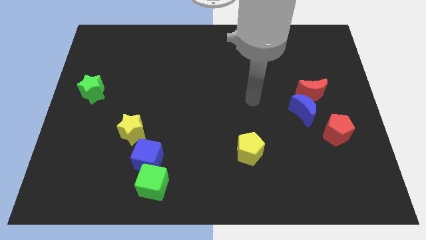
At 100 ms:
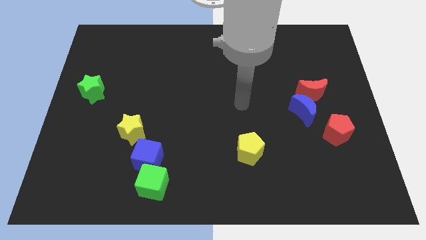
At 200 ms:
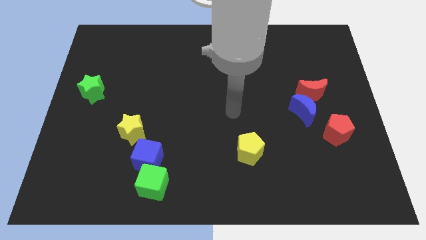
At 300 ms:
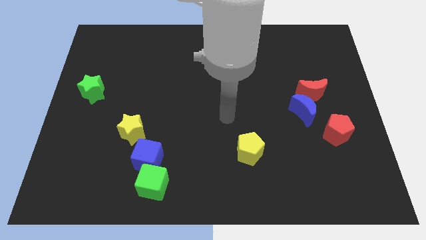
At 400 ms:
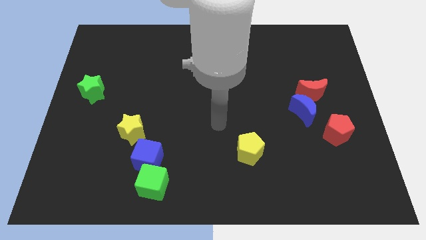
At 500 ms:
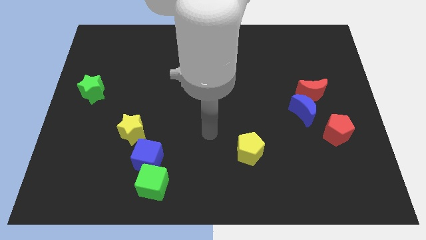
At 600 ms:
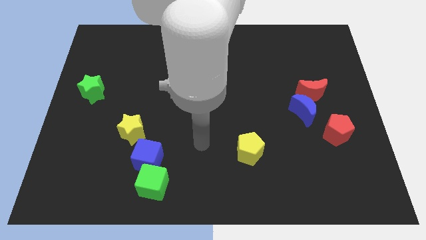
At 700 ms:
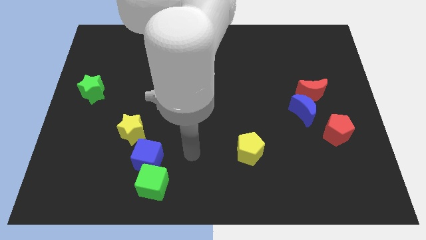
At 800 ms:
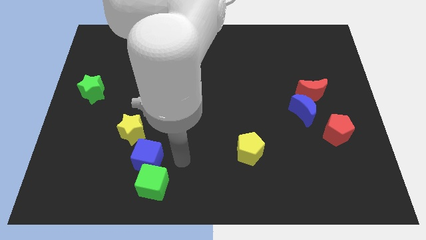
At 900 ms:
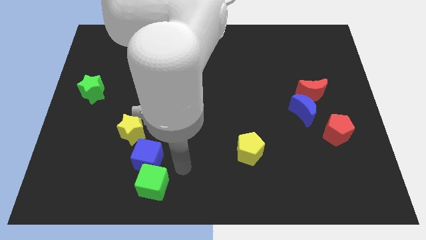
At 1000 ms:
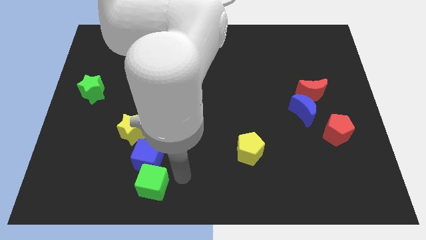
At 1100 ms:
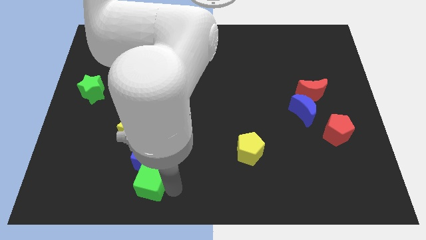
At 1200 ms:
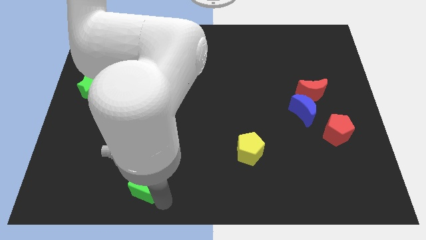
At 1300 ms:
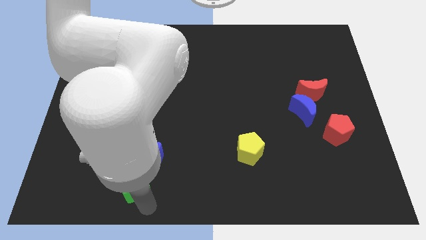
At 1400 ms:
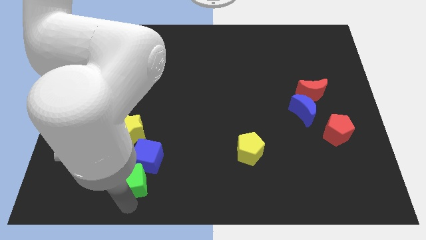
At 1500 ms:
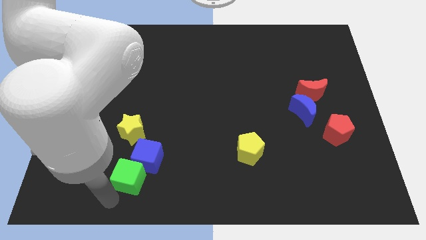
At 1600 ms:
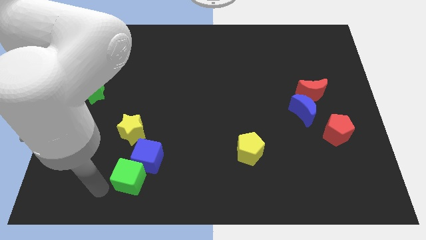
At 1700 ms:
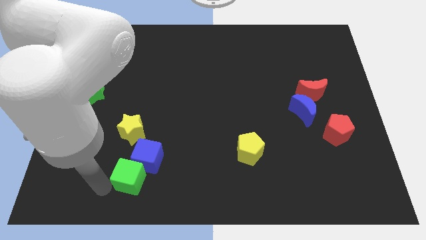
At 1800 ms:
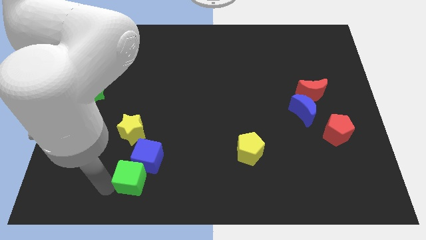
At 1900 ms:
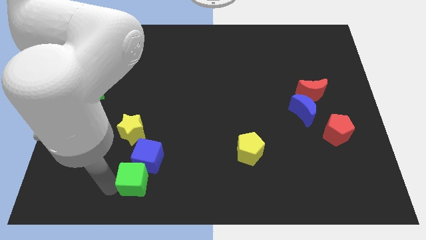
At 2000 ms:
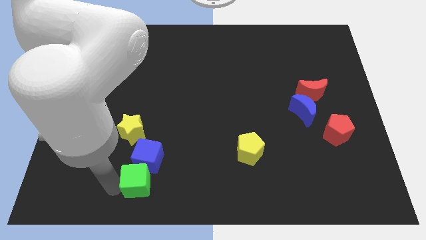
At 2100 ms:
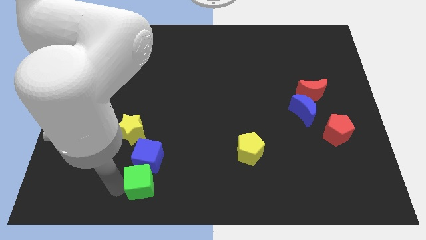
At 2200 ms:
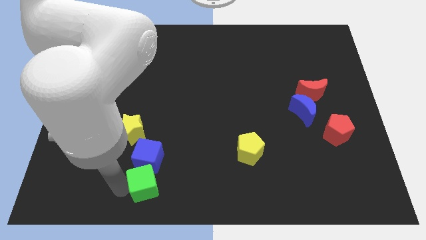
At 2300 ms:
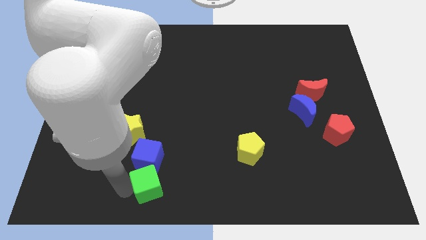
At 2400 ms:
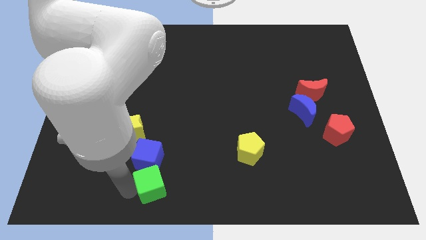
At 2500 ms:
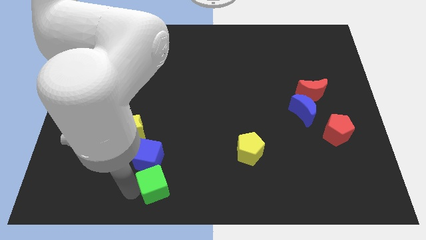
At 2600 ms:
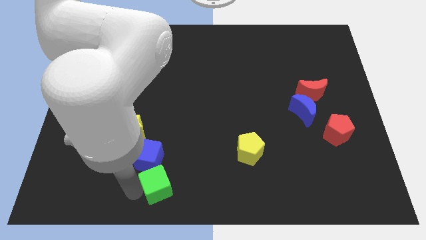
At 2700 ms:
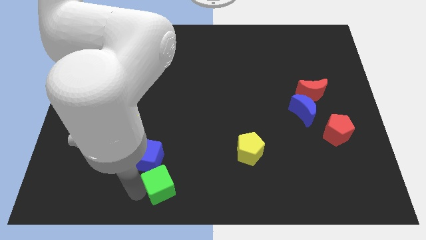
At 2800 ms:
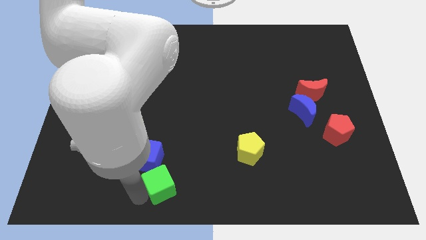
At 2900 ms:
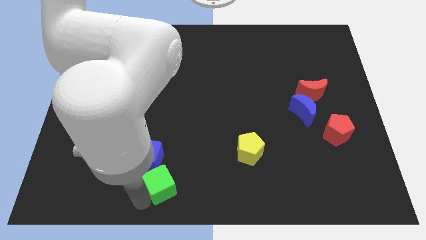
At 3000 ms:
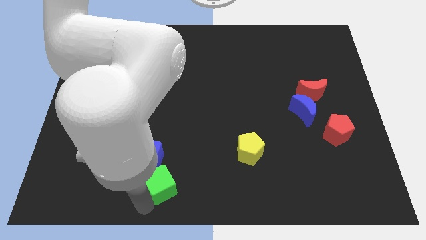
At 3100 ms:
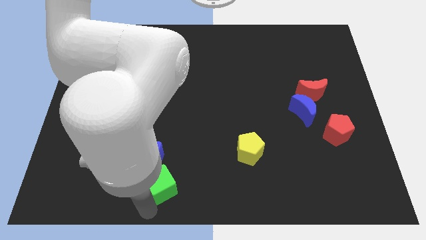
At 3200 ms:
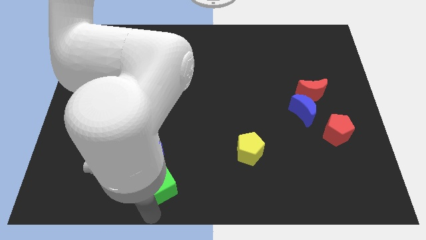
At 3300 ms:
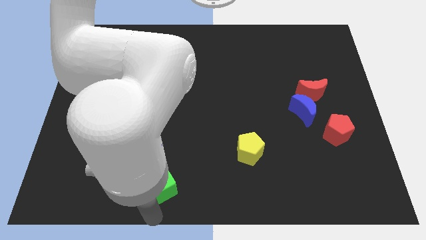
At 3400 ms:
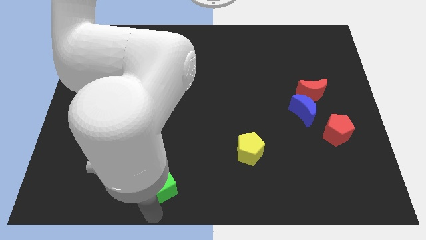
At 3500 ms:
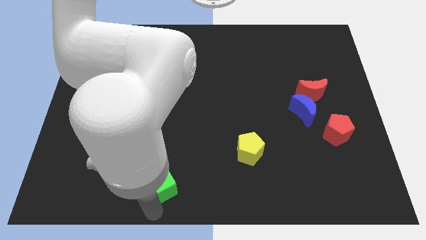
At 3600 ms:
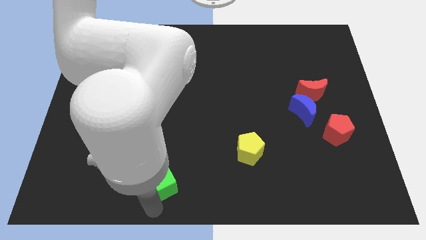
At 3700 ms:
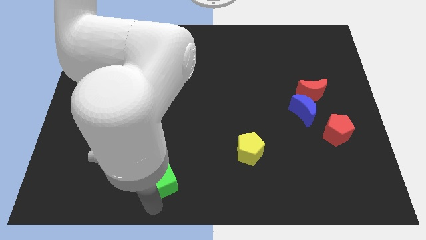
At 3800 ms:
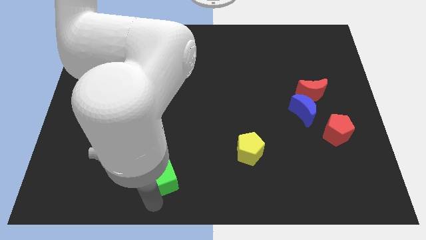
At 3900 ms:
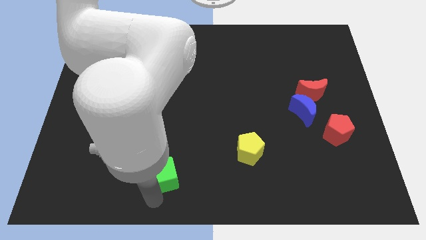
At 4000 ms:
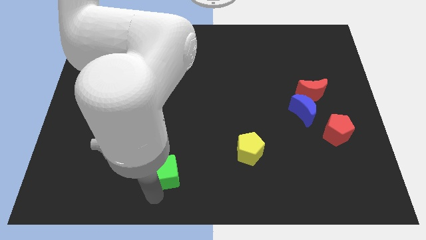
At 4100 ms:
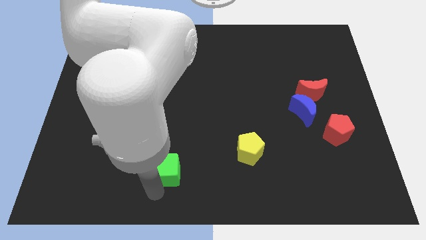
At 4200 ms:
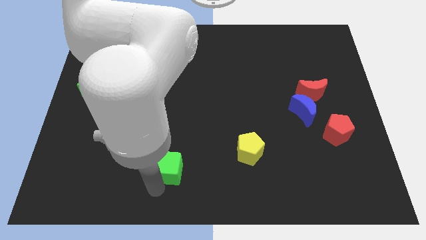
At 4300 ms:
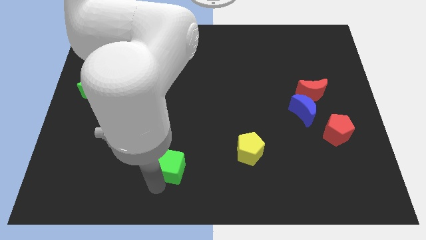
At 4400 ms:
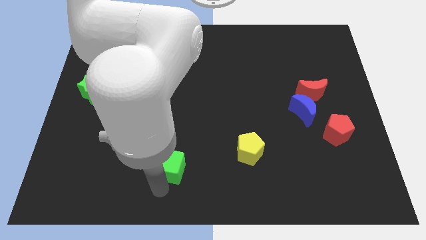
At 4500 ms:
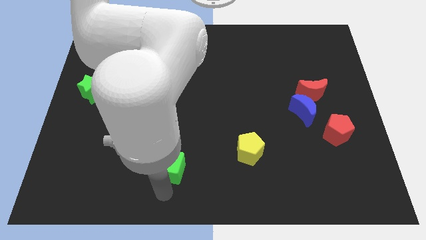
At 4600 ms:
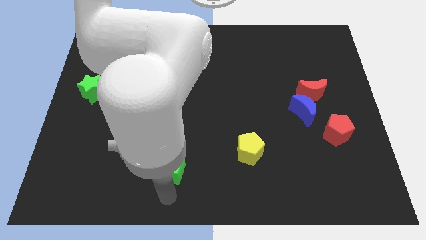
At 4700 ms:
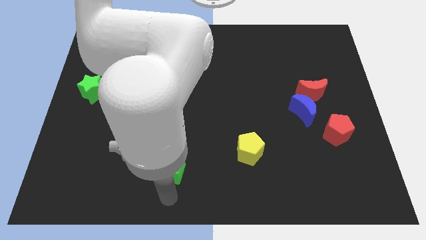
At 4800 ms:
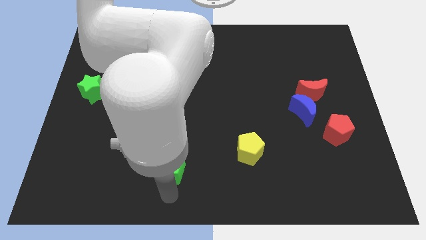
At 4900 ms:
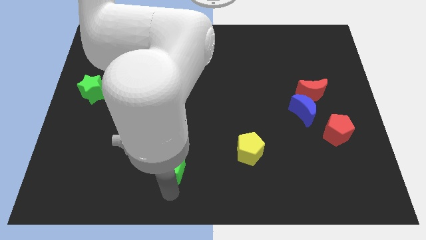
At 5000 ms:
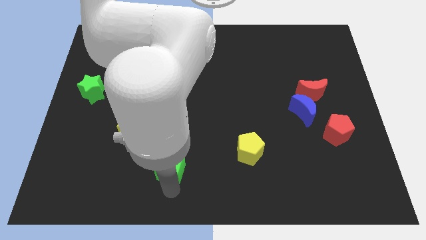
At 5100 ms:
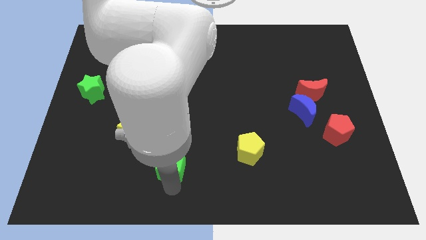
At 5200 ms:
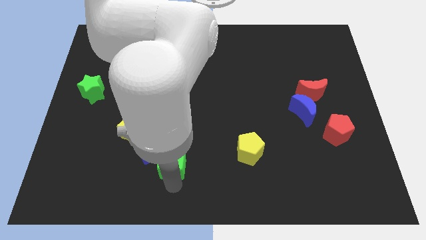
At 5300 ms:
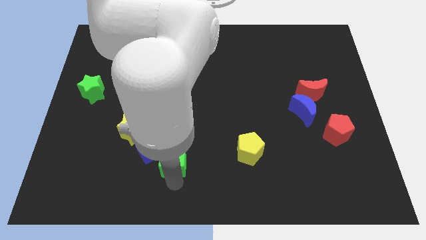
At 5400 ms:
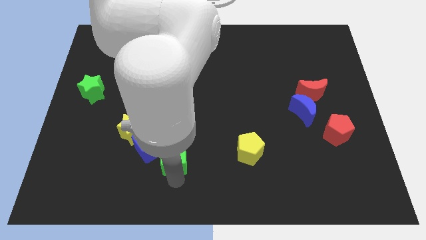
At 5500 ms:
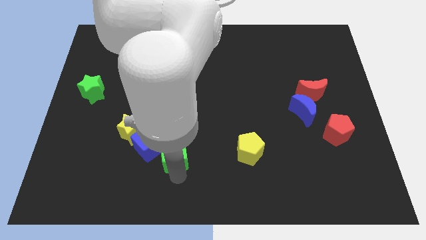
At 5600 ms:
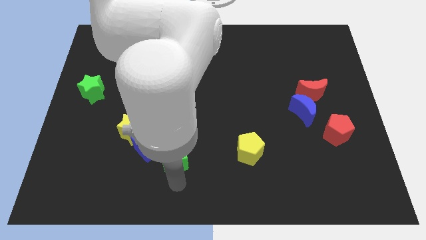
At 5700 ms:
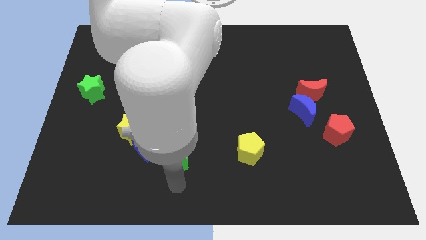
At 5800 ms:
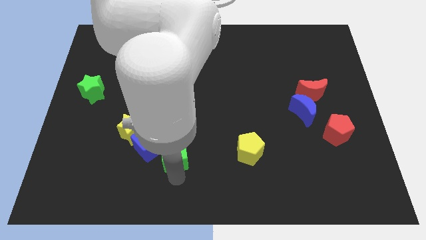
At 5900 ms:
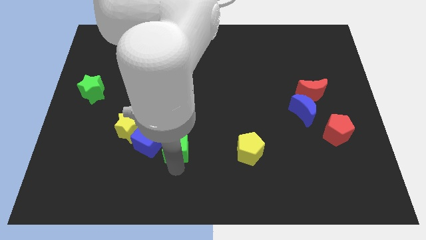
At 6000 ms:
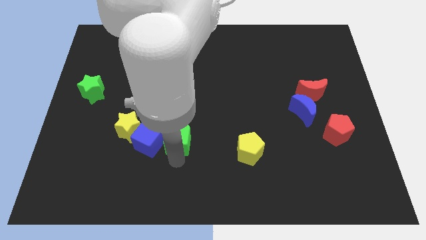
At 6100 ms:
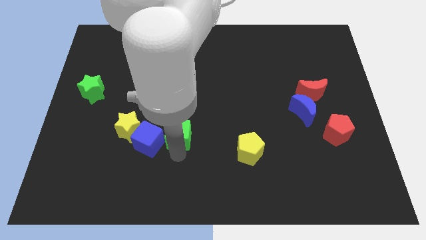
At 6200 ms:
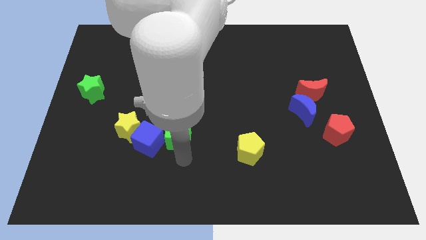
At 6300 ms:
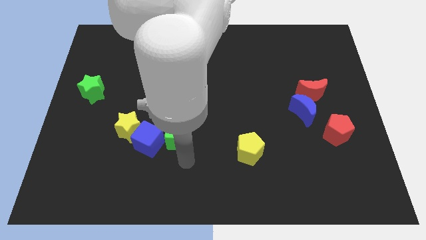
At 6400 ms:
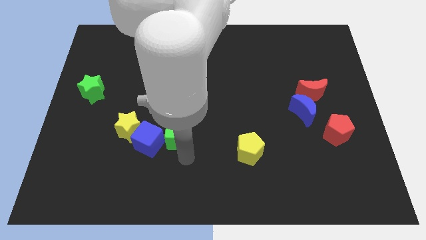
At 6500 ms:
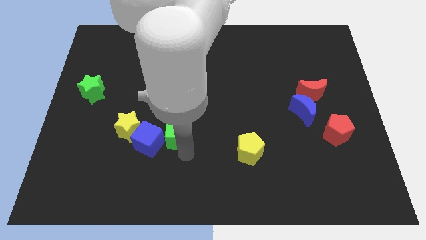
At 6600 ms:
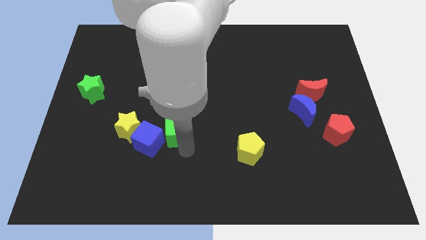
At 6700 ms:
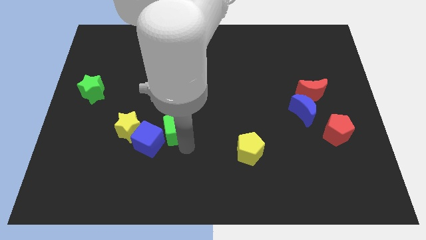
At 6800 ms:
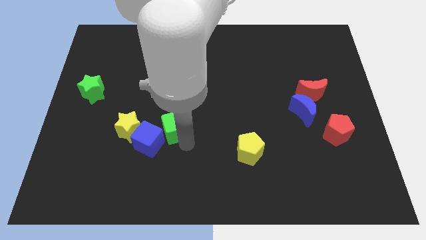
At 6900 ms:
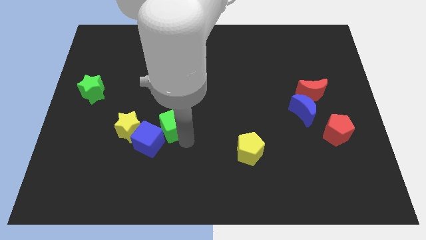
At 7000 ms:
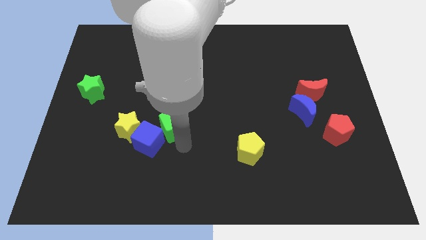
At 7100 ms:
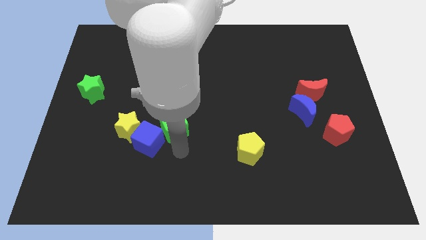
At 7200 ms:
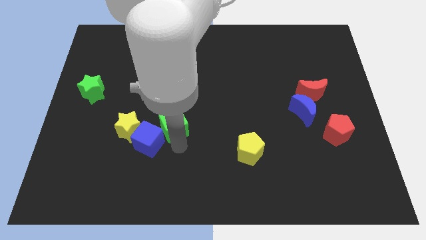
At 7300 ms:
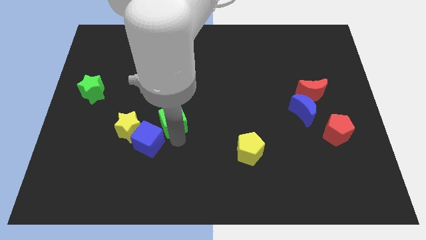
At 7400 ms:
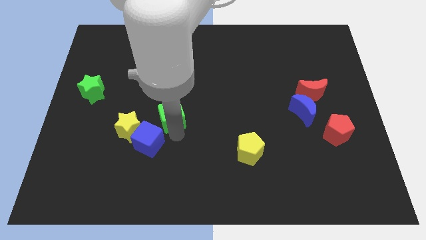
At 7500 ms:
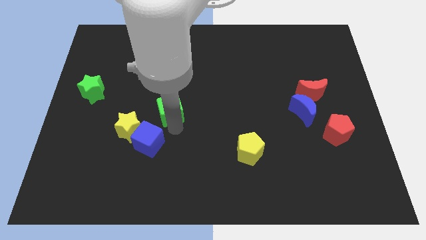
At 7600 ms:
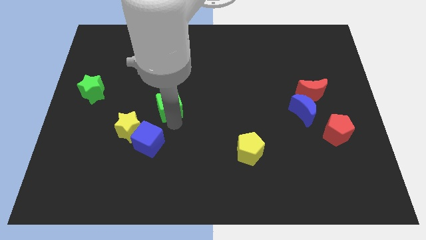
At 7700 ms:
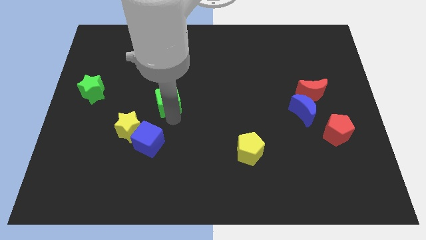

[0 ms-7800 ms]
slide the green cube upwards
